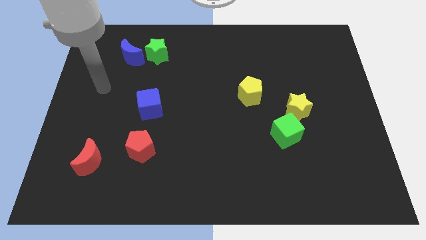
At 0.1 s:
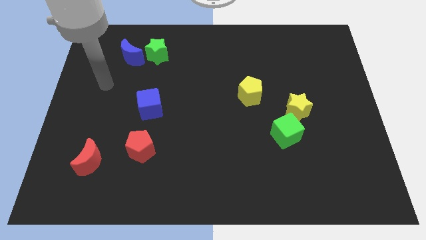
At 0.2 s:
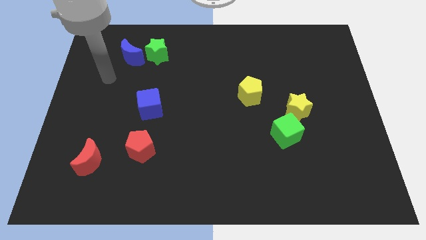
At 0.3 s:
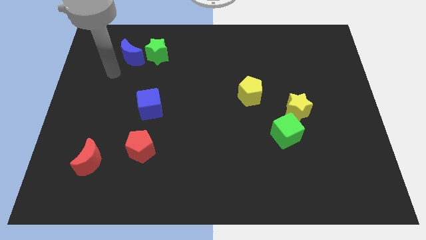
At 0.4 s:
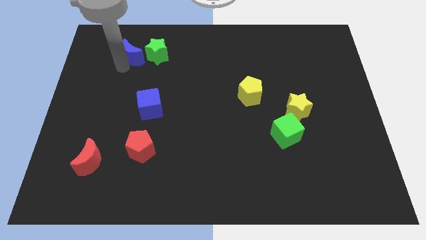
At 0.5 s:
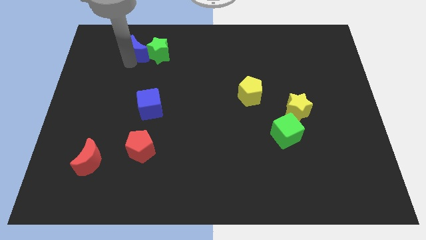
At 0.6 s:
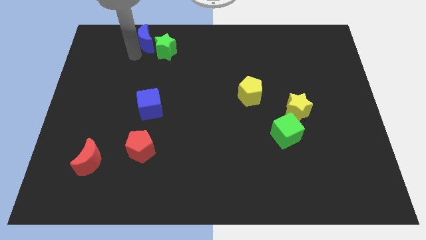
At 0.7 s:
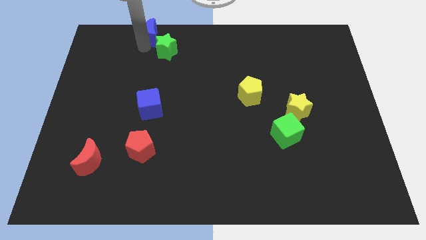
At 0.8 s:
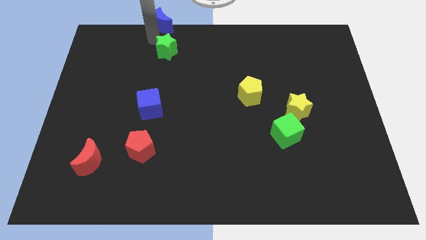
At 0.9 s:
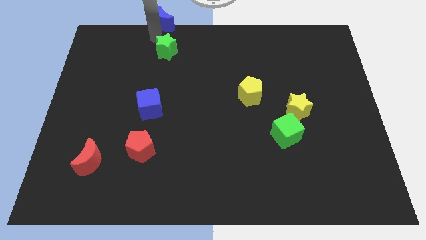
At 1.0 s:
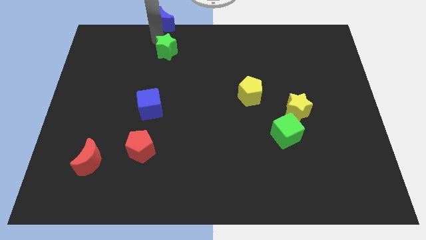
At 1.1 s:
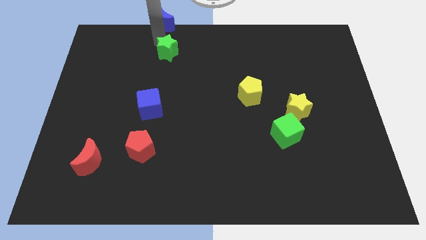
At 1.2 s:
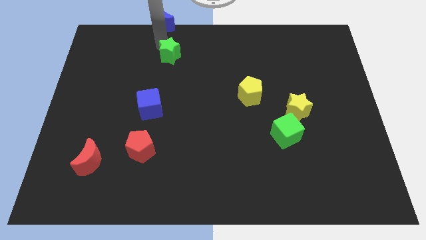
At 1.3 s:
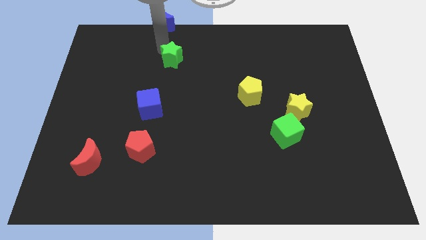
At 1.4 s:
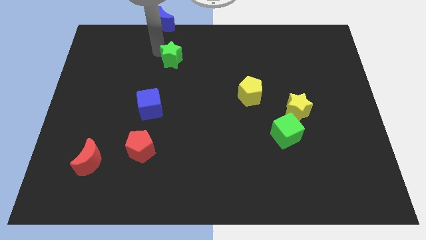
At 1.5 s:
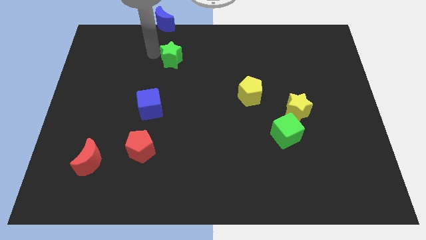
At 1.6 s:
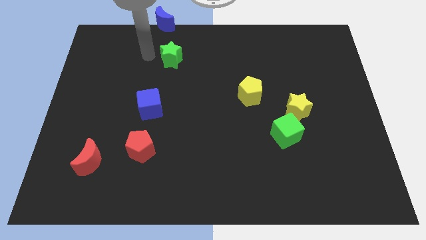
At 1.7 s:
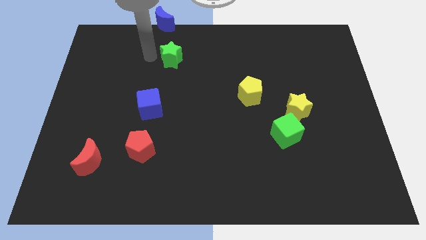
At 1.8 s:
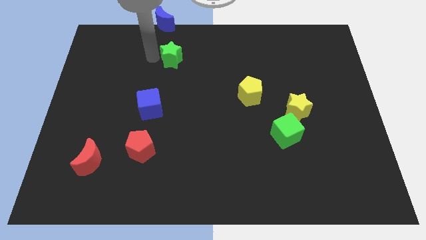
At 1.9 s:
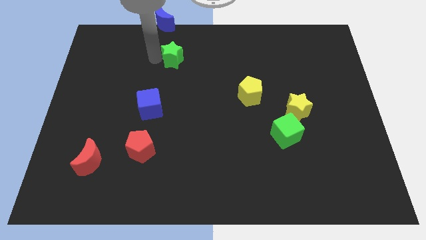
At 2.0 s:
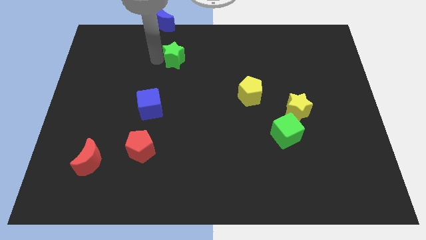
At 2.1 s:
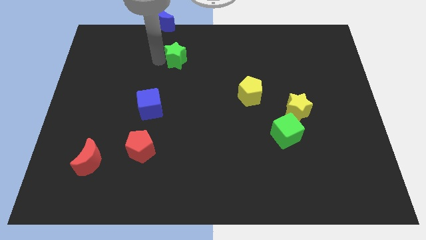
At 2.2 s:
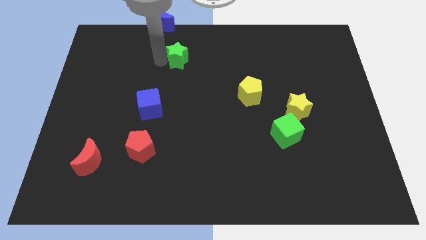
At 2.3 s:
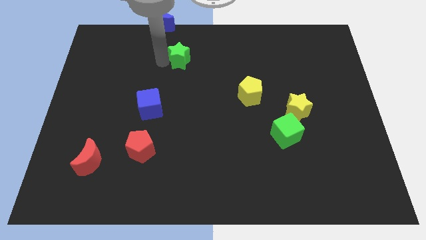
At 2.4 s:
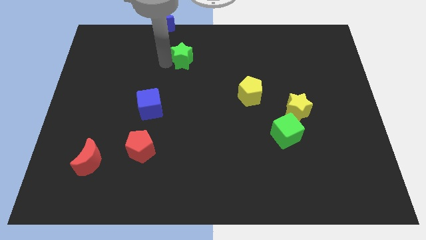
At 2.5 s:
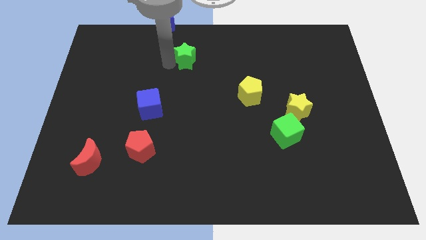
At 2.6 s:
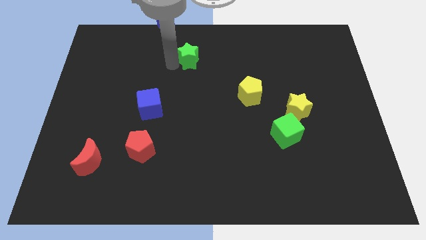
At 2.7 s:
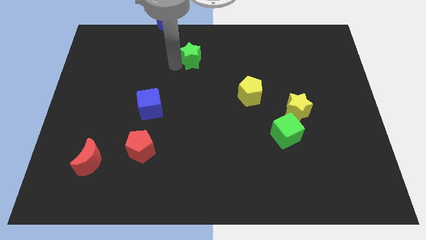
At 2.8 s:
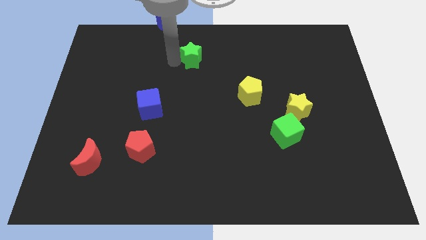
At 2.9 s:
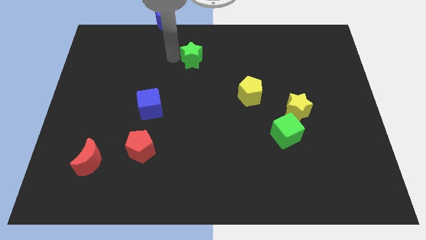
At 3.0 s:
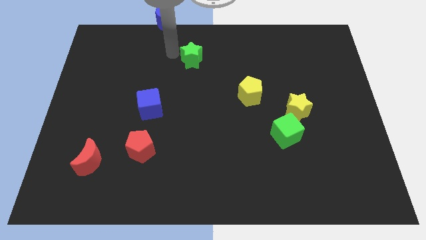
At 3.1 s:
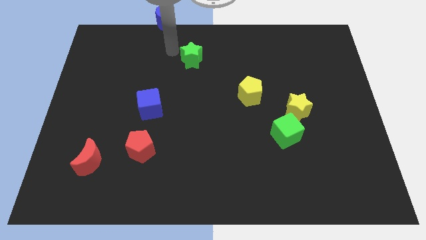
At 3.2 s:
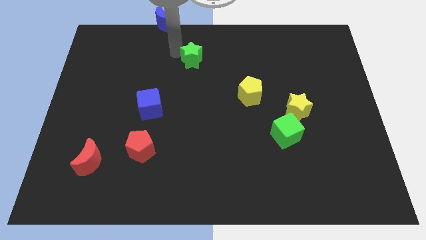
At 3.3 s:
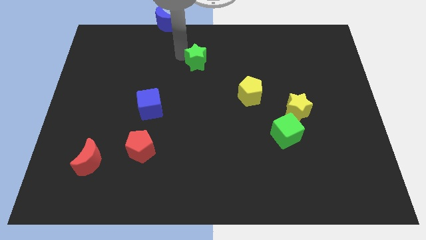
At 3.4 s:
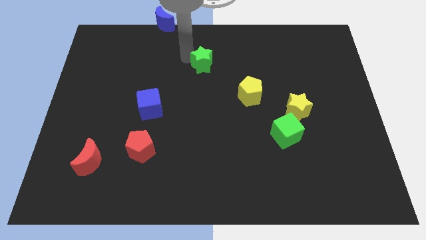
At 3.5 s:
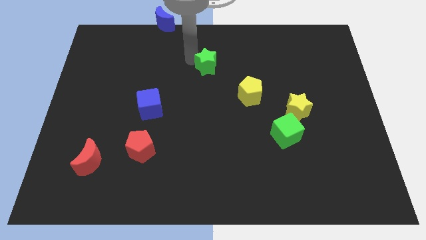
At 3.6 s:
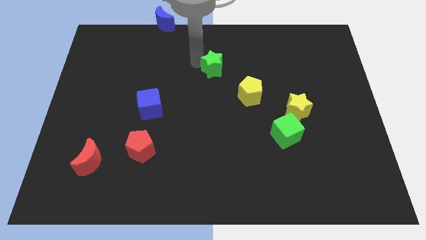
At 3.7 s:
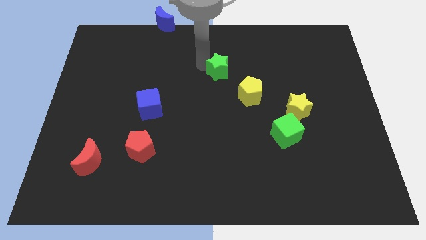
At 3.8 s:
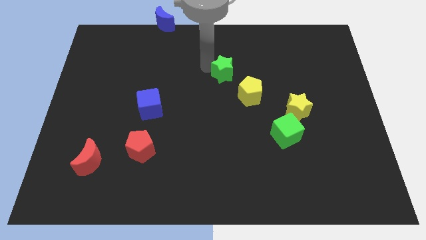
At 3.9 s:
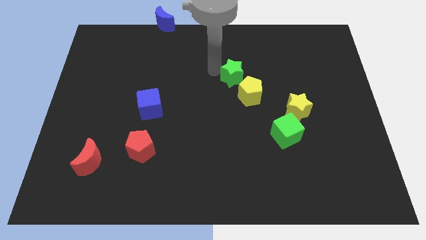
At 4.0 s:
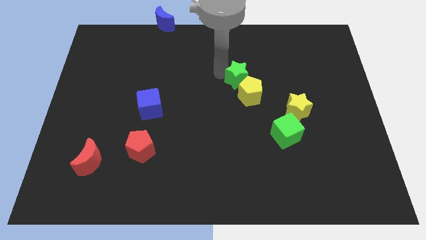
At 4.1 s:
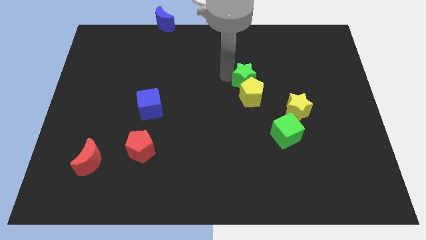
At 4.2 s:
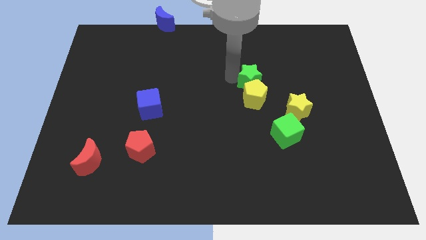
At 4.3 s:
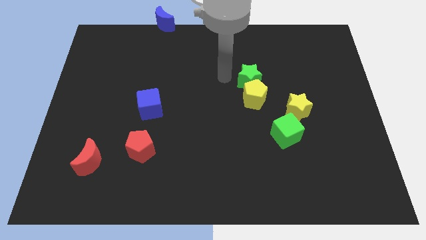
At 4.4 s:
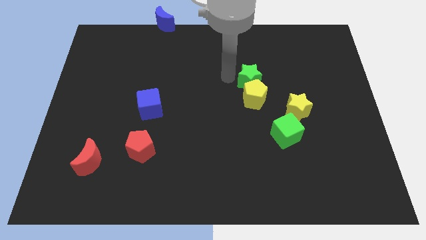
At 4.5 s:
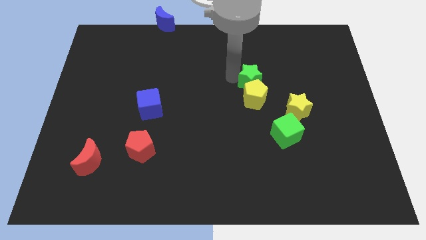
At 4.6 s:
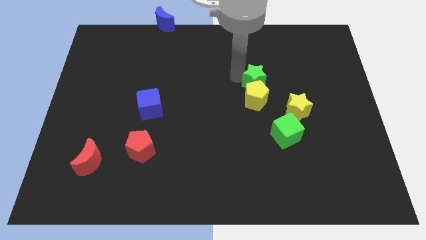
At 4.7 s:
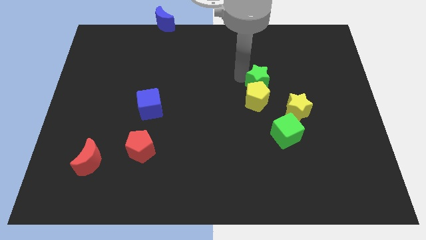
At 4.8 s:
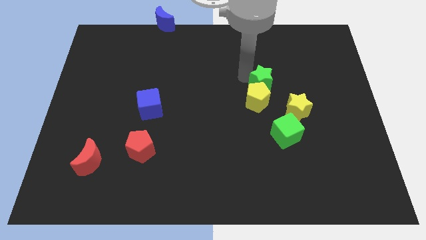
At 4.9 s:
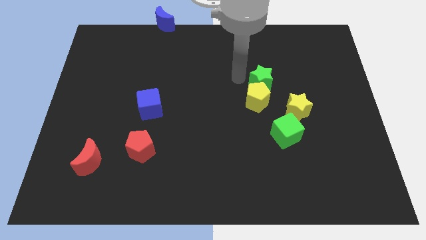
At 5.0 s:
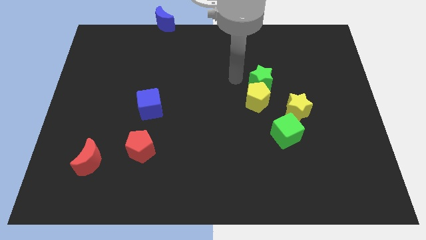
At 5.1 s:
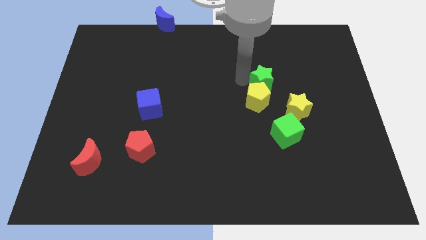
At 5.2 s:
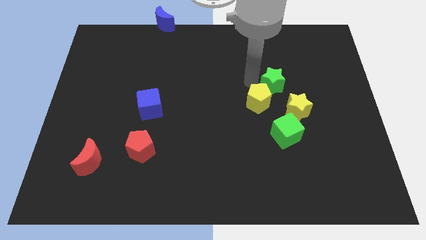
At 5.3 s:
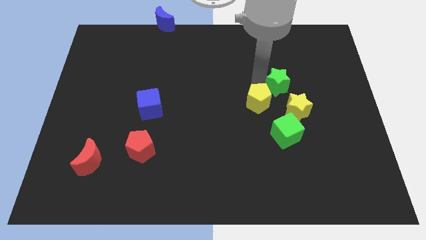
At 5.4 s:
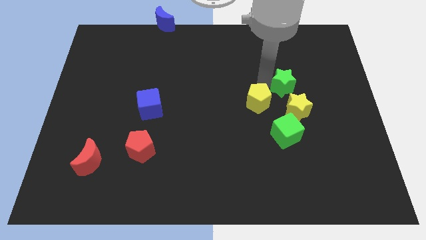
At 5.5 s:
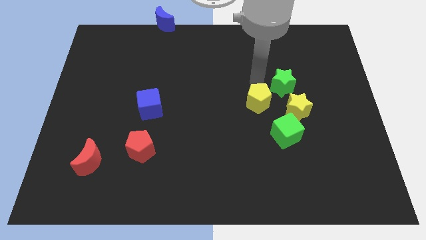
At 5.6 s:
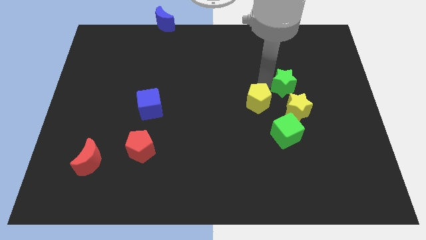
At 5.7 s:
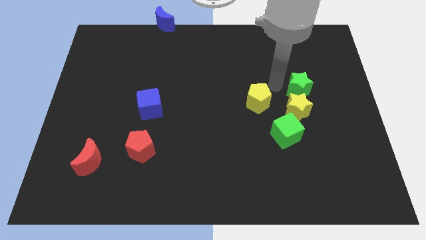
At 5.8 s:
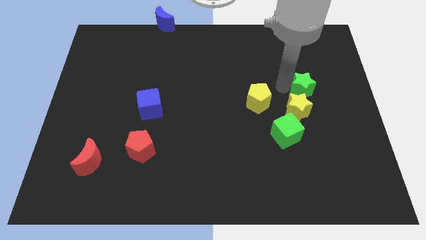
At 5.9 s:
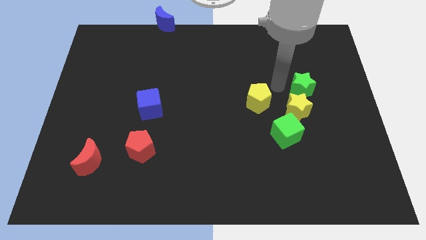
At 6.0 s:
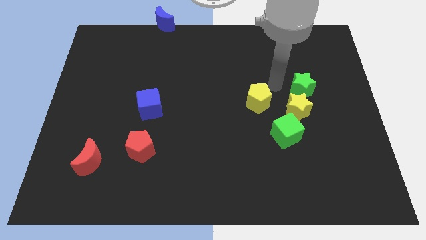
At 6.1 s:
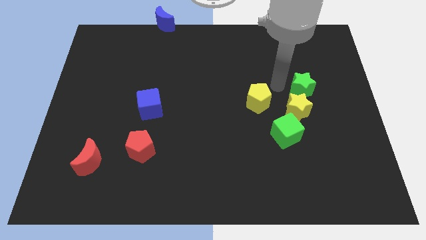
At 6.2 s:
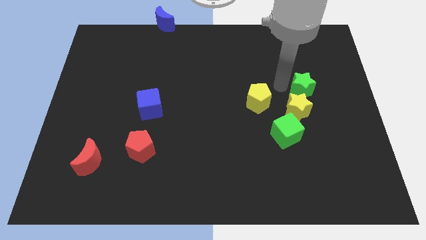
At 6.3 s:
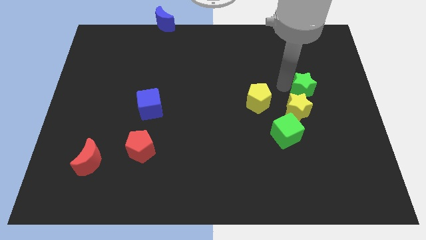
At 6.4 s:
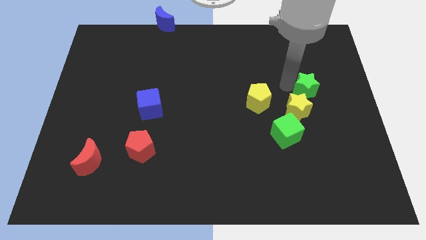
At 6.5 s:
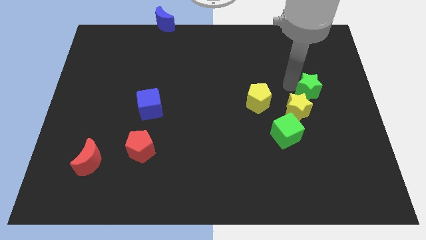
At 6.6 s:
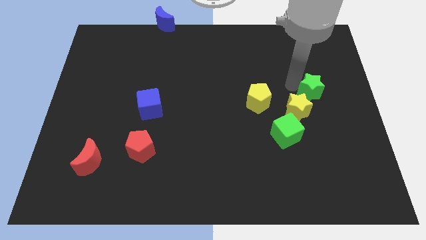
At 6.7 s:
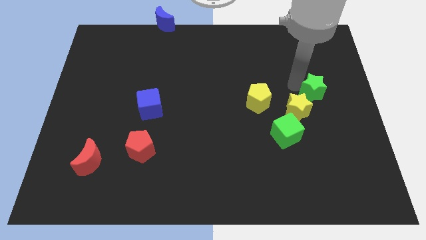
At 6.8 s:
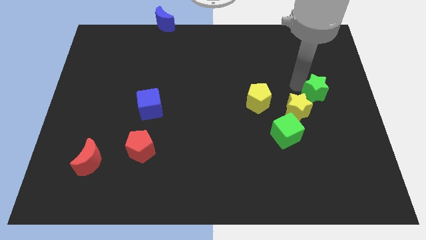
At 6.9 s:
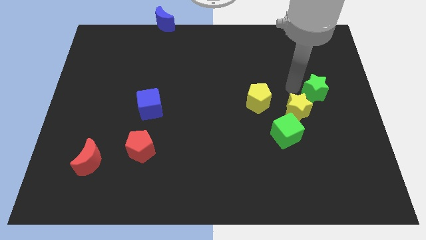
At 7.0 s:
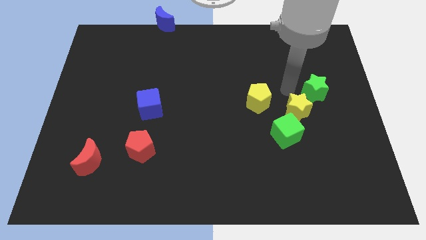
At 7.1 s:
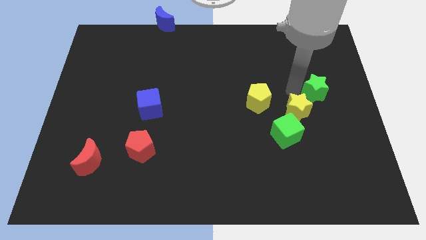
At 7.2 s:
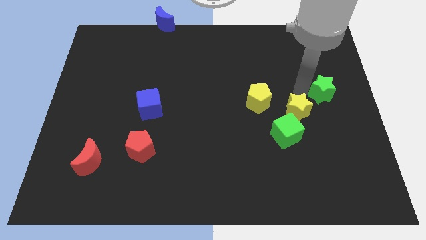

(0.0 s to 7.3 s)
slide the green star to the right side
